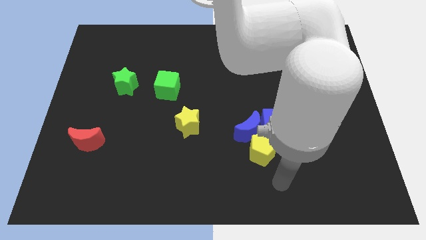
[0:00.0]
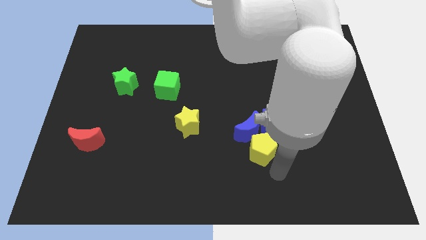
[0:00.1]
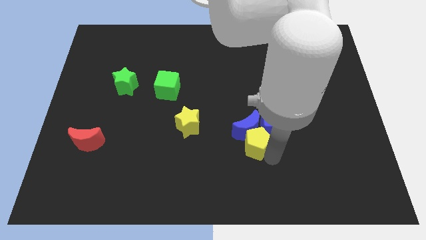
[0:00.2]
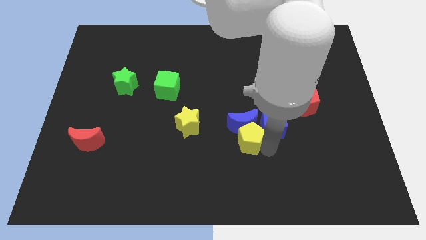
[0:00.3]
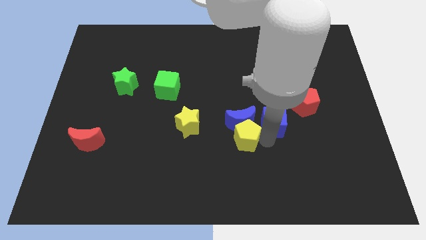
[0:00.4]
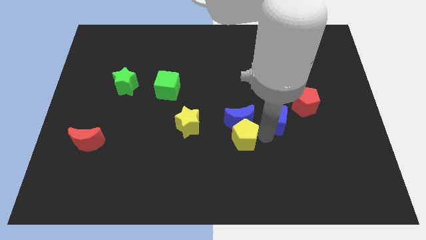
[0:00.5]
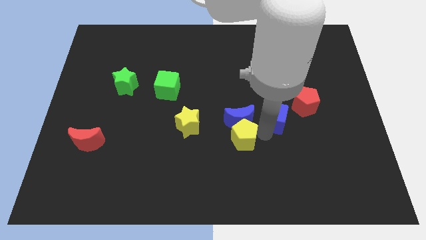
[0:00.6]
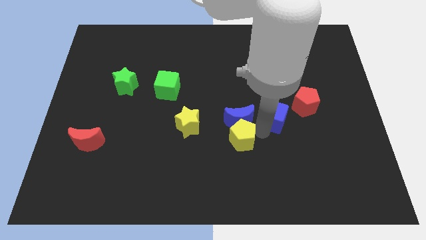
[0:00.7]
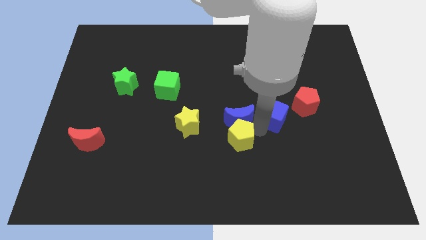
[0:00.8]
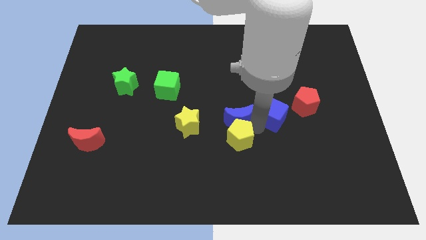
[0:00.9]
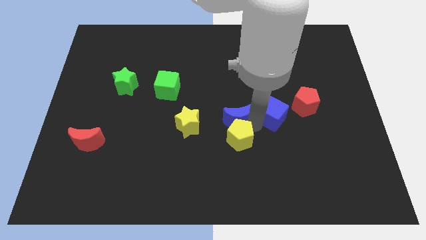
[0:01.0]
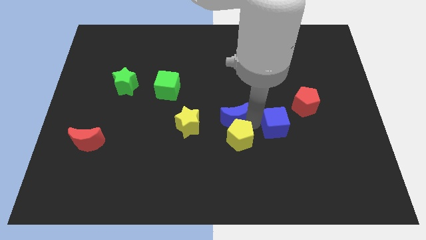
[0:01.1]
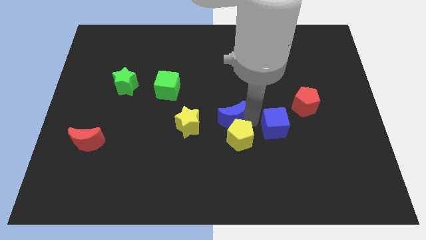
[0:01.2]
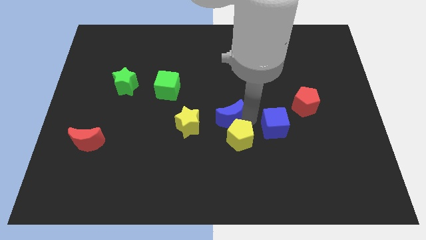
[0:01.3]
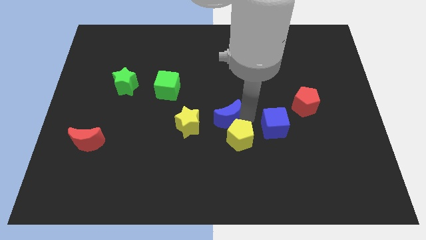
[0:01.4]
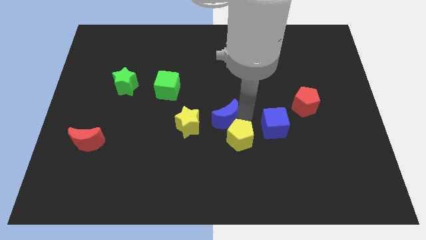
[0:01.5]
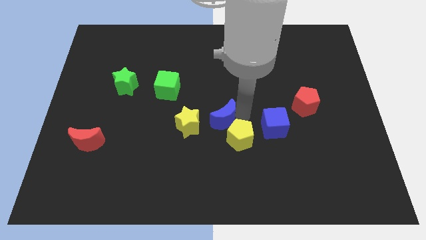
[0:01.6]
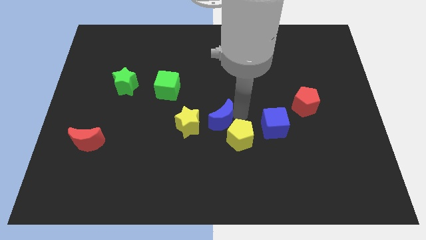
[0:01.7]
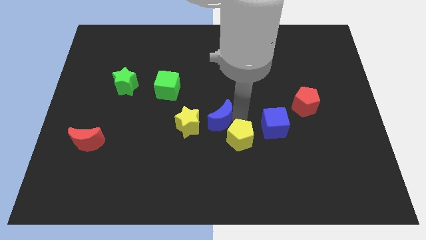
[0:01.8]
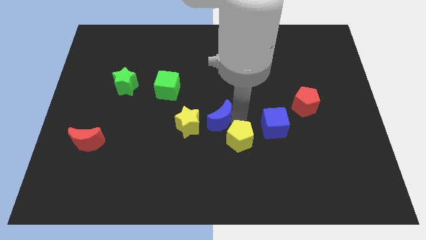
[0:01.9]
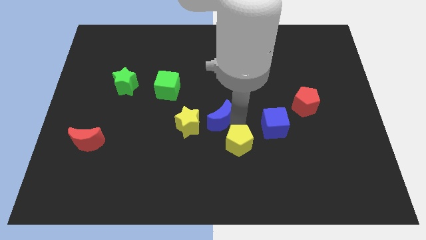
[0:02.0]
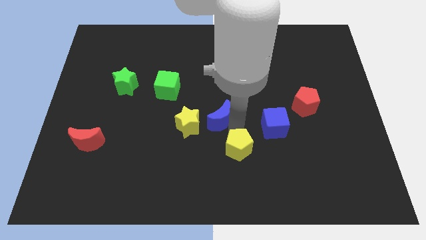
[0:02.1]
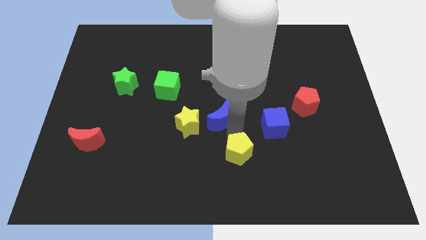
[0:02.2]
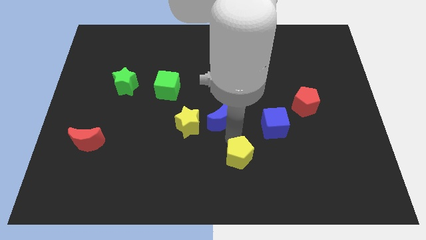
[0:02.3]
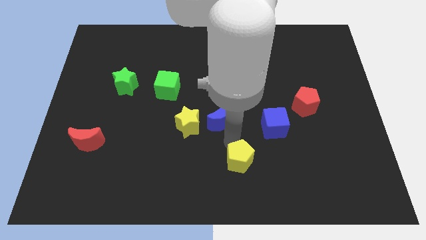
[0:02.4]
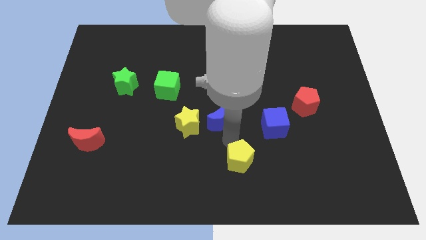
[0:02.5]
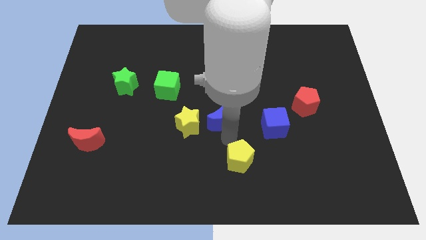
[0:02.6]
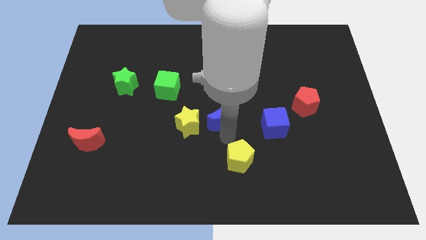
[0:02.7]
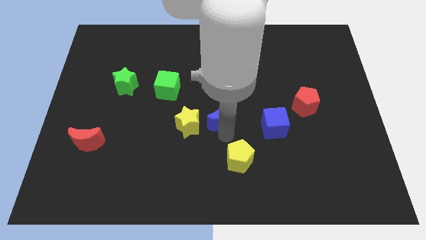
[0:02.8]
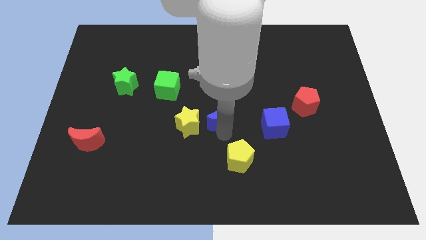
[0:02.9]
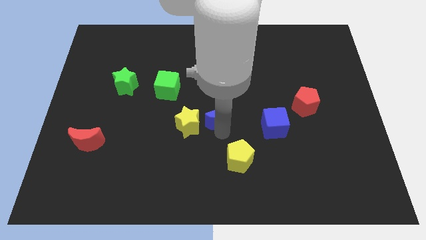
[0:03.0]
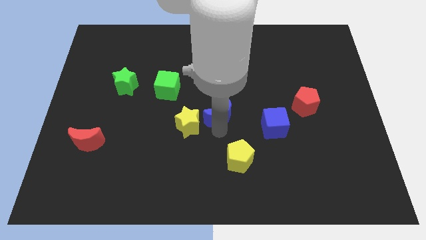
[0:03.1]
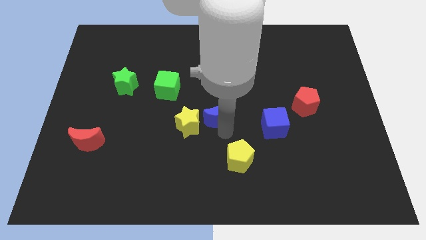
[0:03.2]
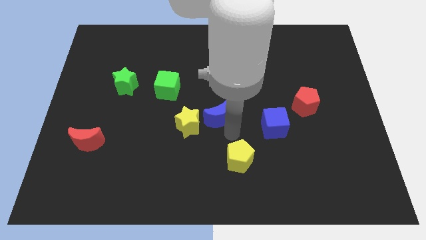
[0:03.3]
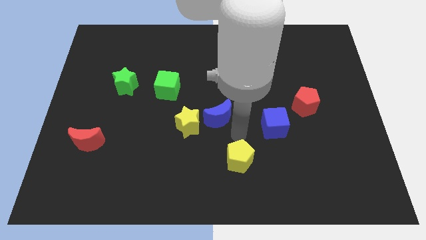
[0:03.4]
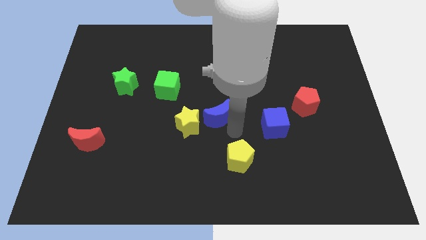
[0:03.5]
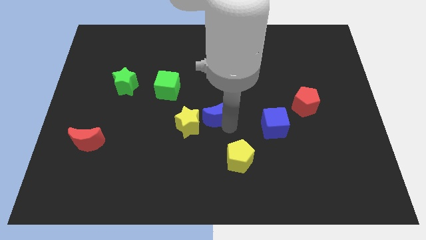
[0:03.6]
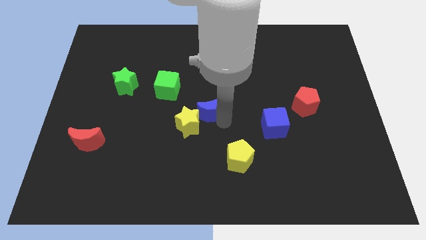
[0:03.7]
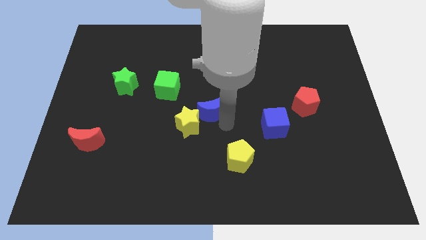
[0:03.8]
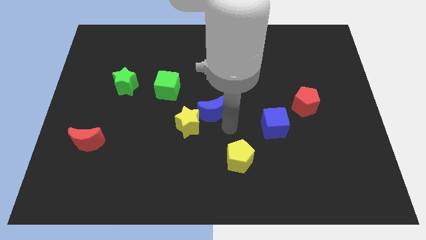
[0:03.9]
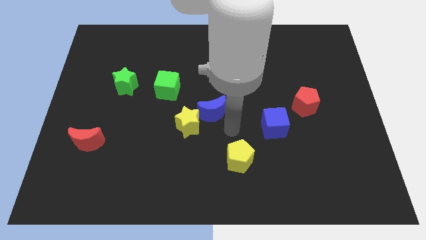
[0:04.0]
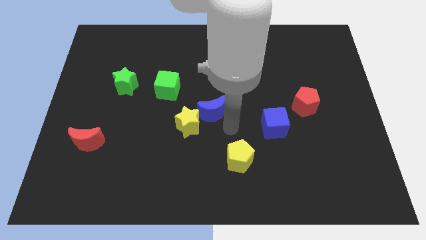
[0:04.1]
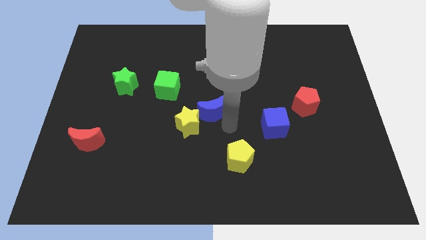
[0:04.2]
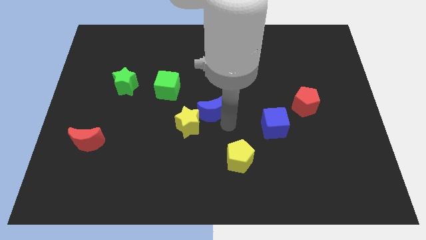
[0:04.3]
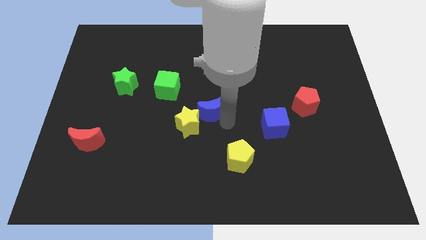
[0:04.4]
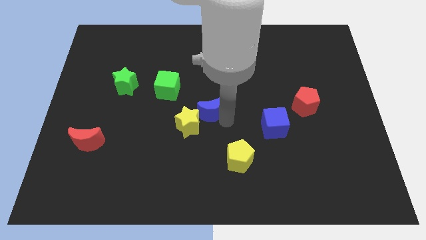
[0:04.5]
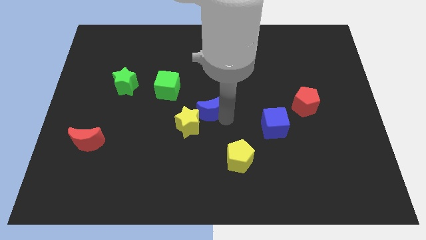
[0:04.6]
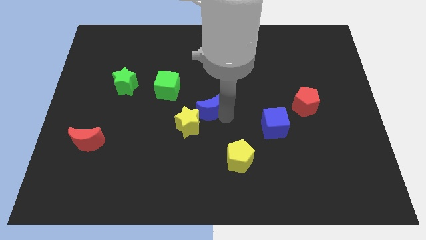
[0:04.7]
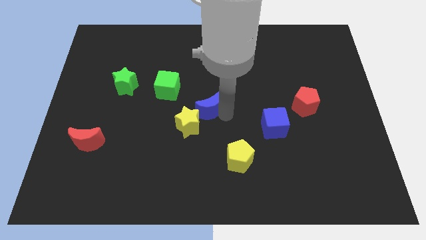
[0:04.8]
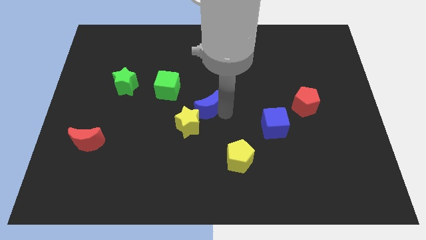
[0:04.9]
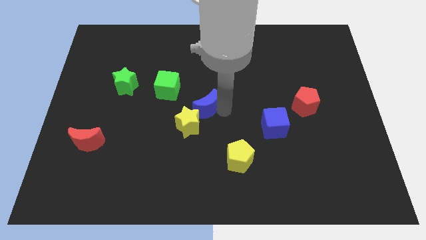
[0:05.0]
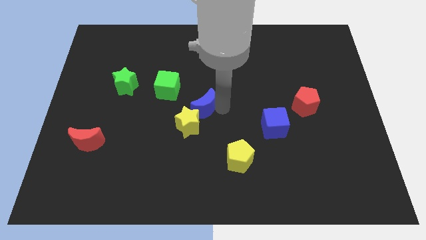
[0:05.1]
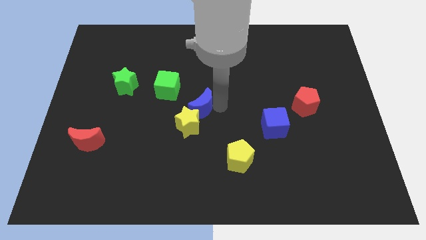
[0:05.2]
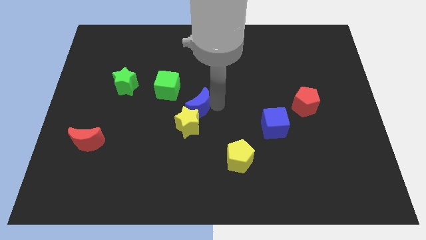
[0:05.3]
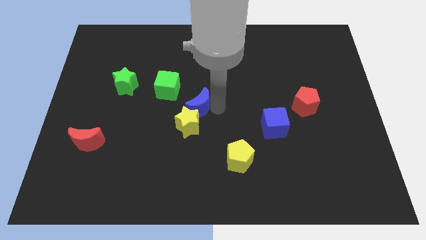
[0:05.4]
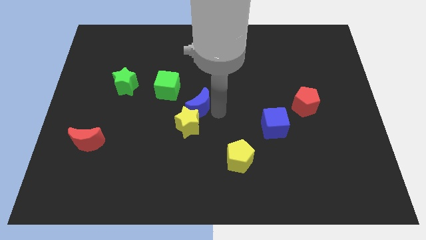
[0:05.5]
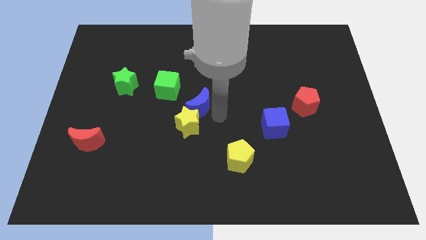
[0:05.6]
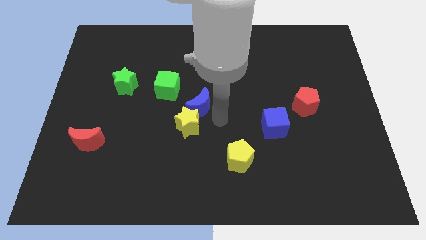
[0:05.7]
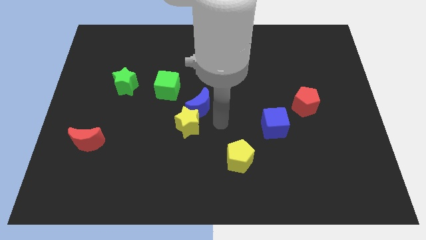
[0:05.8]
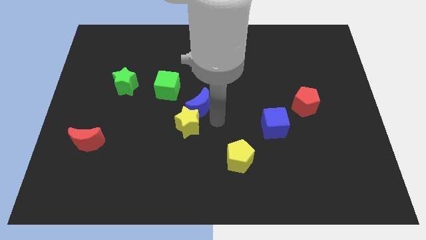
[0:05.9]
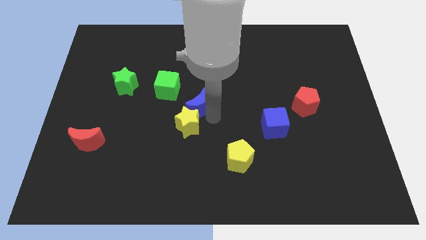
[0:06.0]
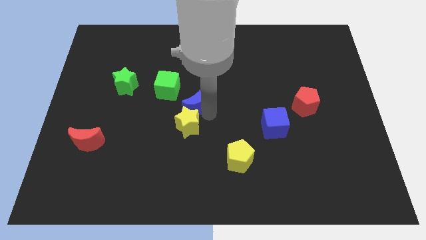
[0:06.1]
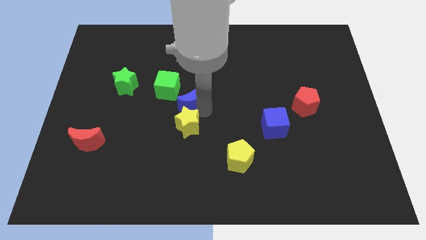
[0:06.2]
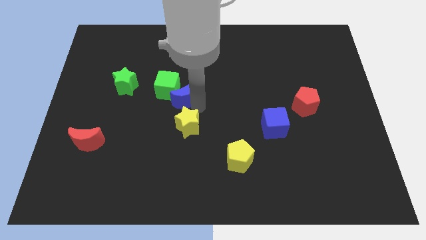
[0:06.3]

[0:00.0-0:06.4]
push the blue moon towards the green cube

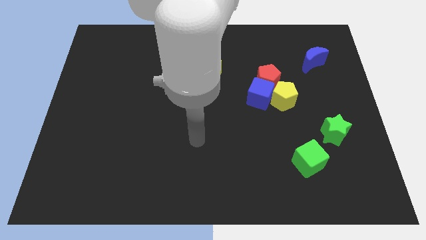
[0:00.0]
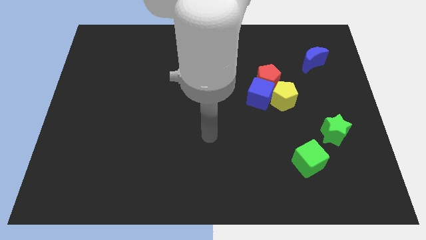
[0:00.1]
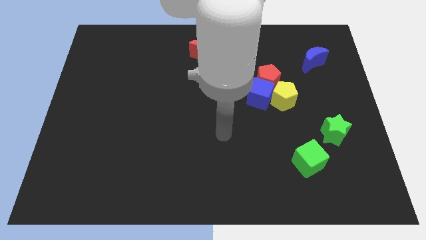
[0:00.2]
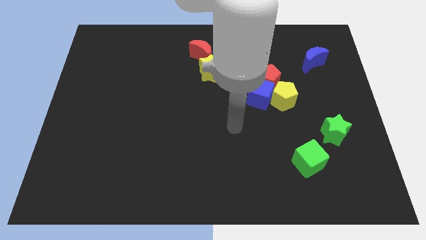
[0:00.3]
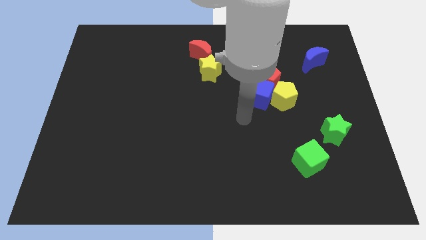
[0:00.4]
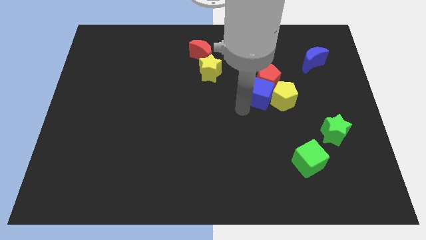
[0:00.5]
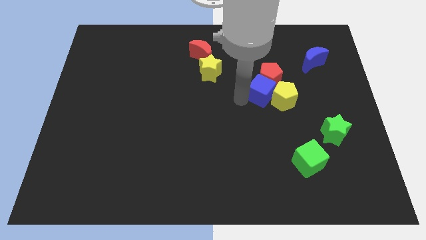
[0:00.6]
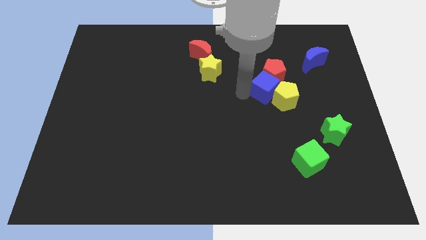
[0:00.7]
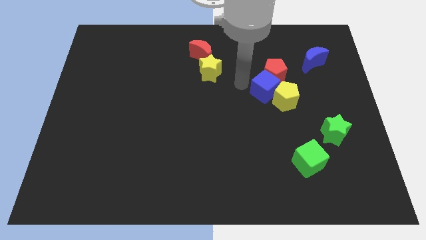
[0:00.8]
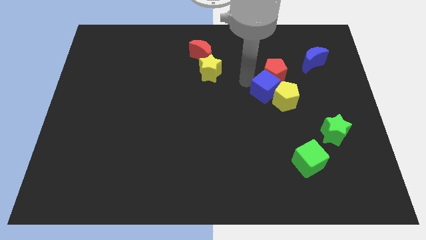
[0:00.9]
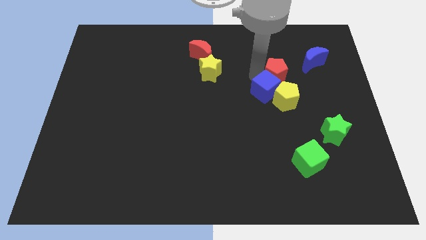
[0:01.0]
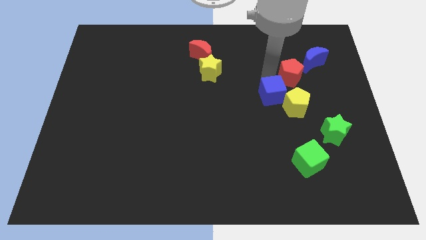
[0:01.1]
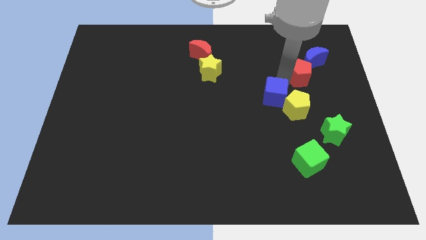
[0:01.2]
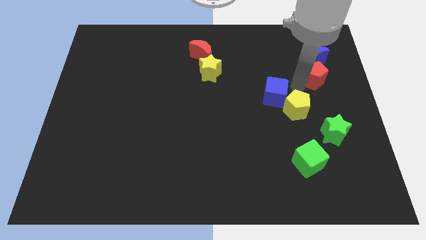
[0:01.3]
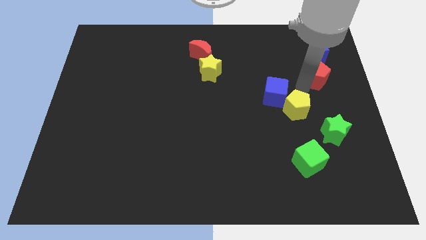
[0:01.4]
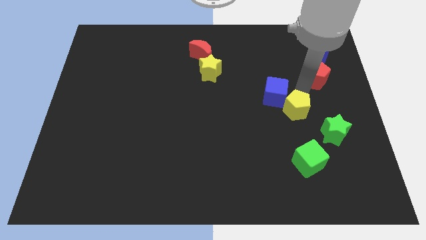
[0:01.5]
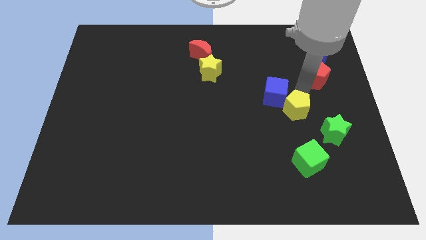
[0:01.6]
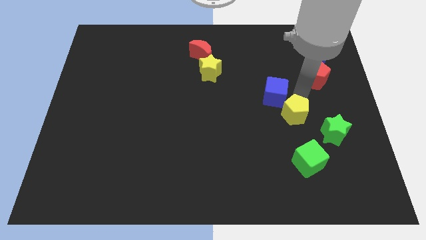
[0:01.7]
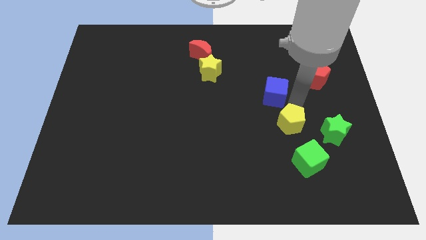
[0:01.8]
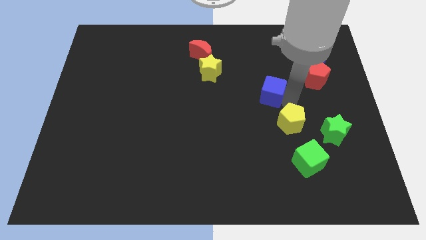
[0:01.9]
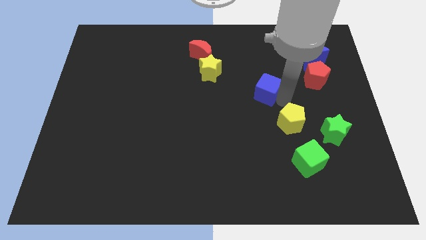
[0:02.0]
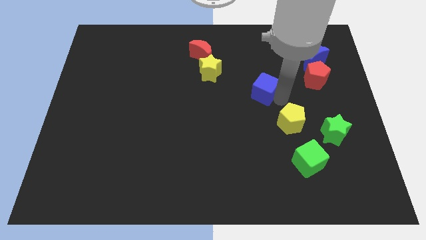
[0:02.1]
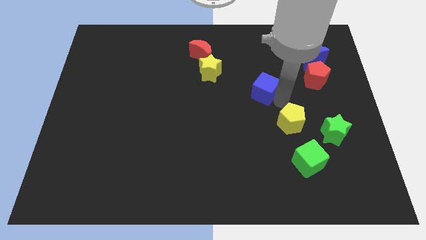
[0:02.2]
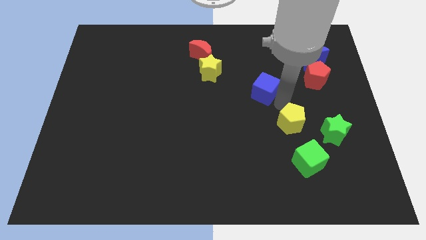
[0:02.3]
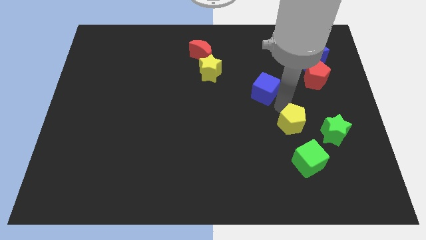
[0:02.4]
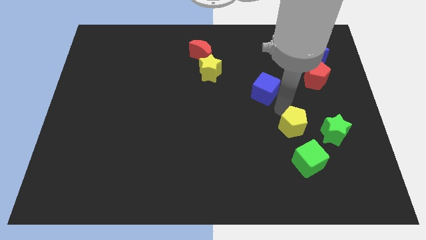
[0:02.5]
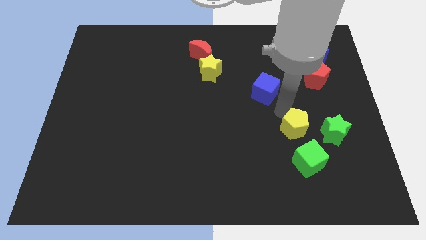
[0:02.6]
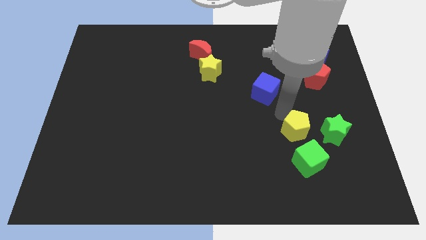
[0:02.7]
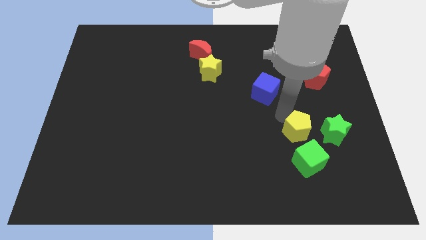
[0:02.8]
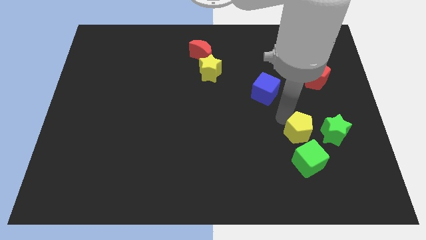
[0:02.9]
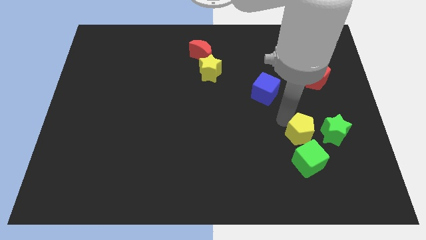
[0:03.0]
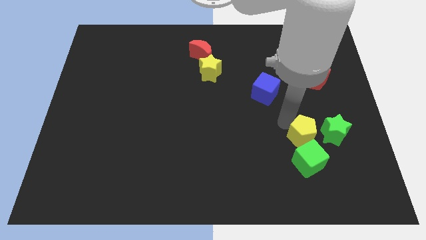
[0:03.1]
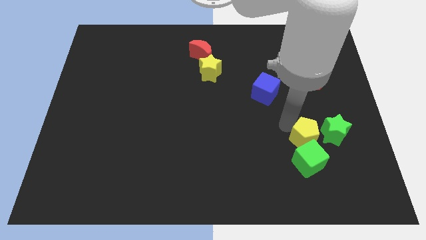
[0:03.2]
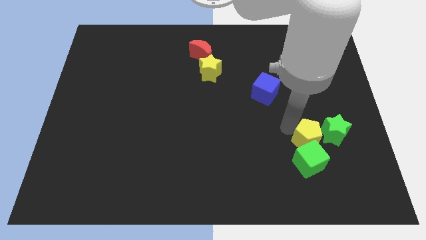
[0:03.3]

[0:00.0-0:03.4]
push the yellow pentagon next to the green cube
